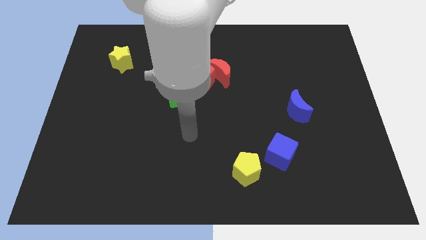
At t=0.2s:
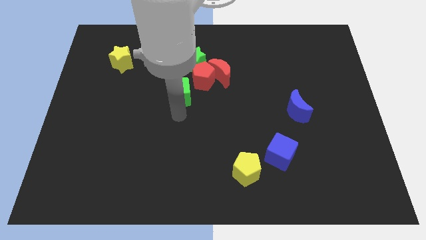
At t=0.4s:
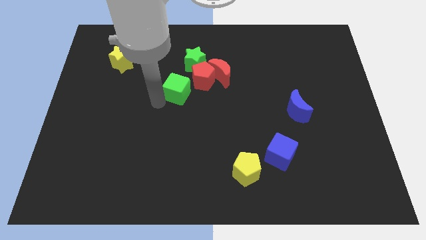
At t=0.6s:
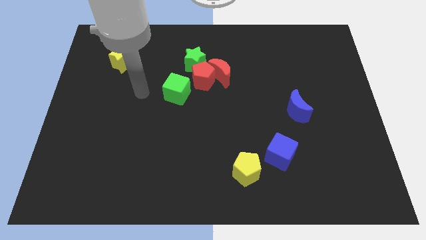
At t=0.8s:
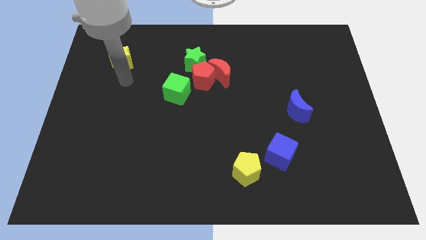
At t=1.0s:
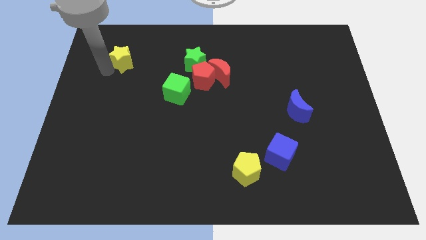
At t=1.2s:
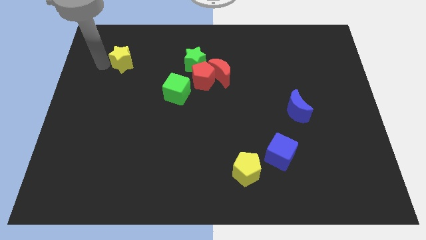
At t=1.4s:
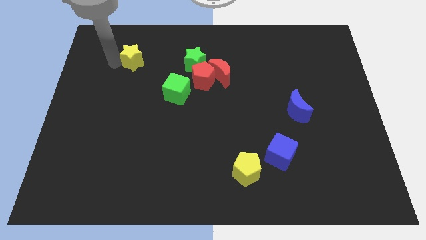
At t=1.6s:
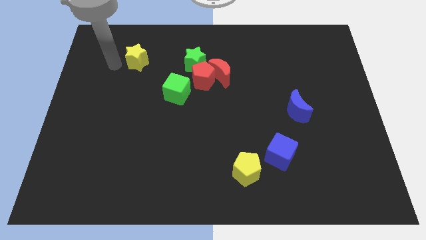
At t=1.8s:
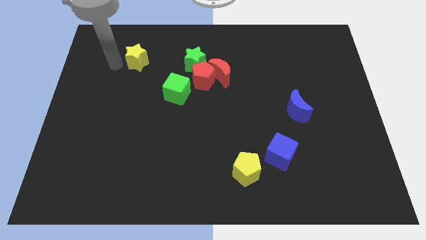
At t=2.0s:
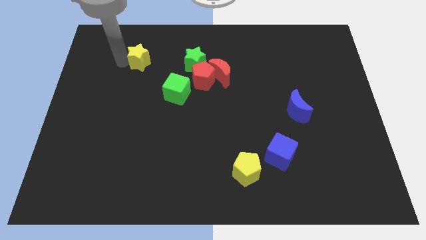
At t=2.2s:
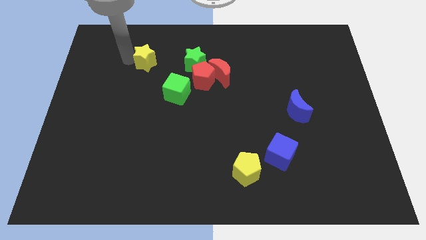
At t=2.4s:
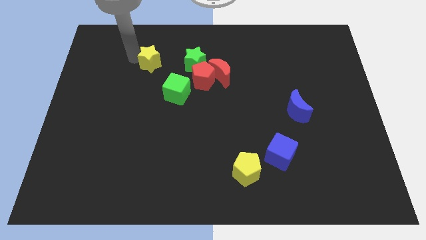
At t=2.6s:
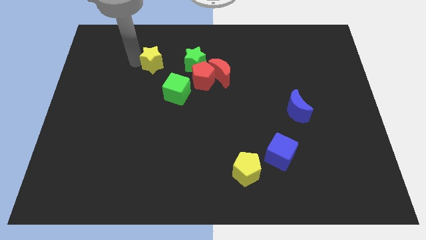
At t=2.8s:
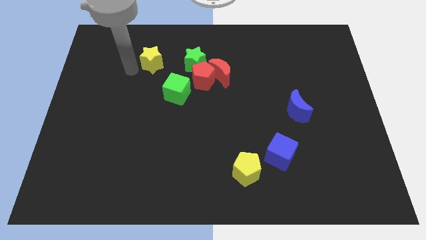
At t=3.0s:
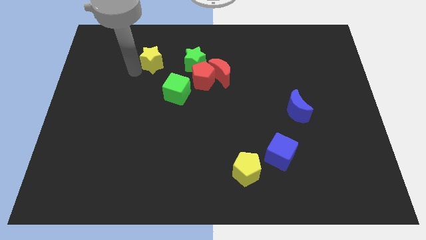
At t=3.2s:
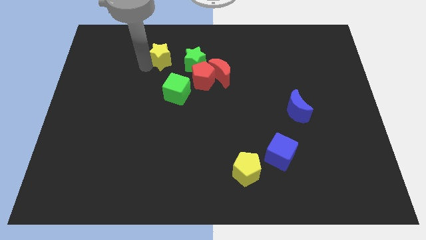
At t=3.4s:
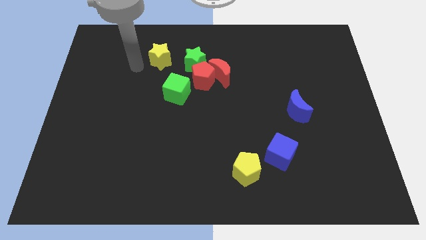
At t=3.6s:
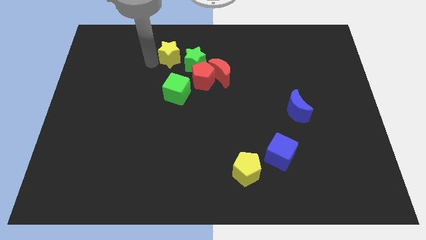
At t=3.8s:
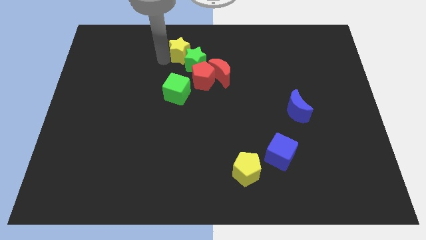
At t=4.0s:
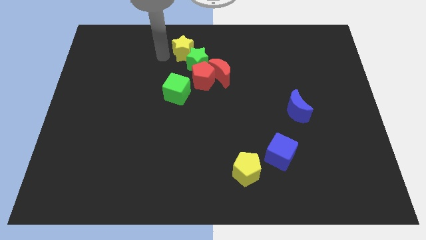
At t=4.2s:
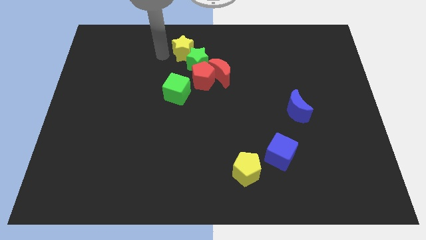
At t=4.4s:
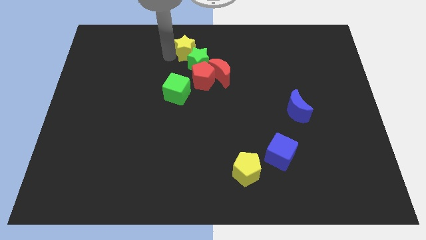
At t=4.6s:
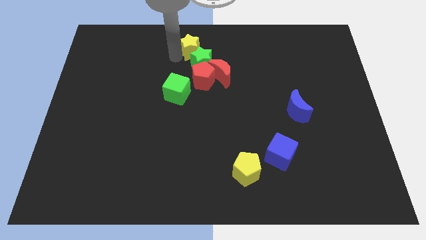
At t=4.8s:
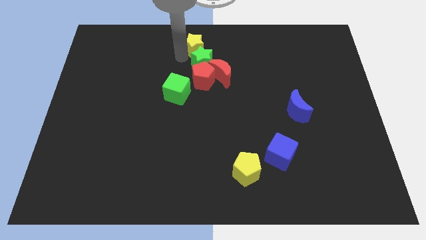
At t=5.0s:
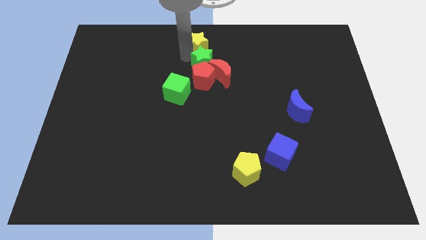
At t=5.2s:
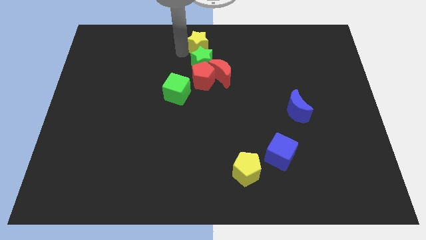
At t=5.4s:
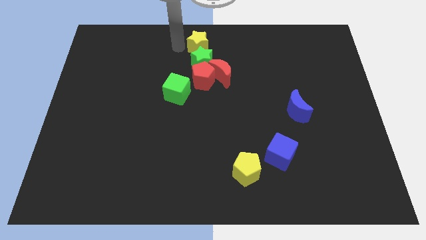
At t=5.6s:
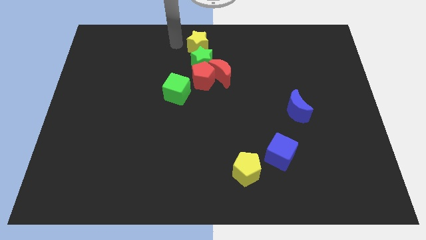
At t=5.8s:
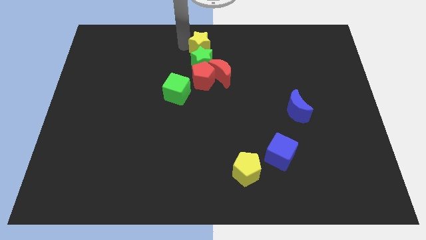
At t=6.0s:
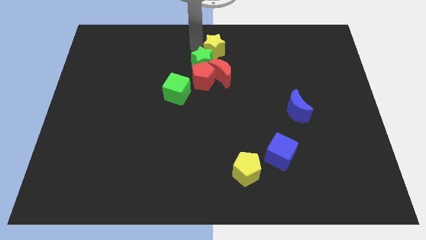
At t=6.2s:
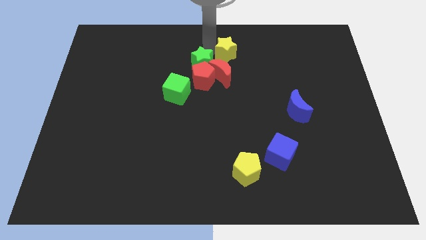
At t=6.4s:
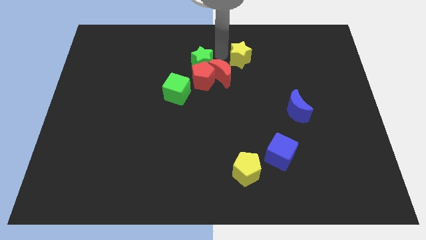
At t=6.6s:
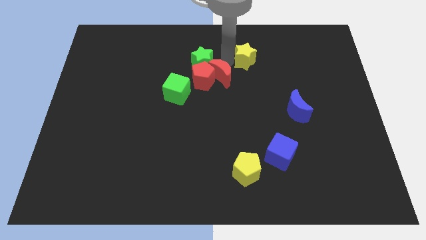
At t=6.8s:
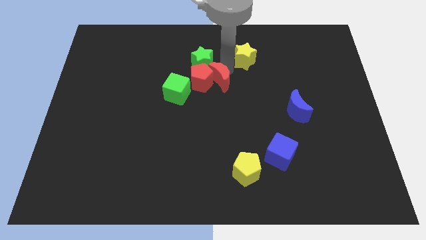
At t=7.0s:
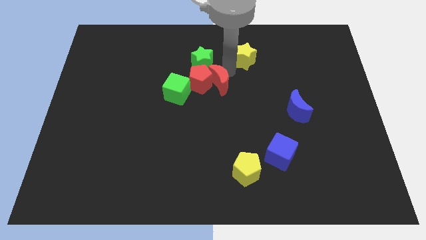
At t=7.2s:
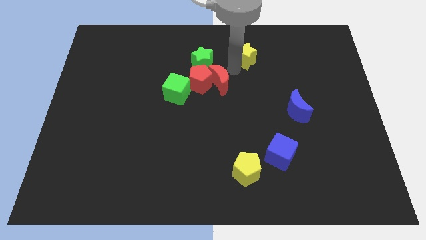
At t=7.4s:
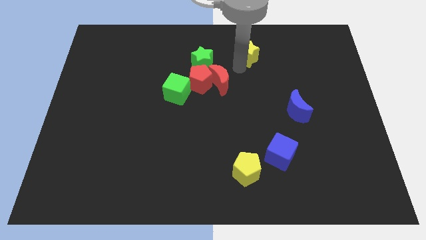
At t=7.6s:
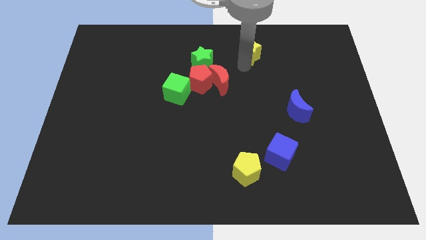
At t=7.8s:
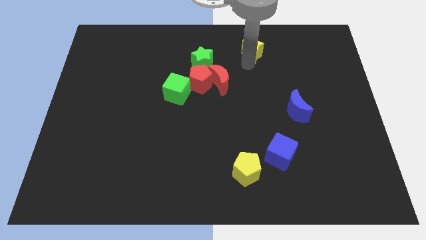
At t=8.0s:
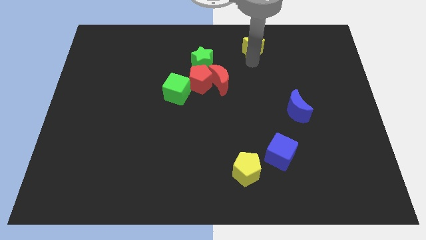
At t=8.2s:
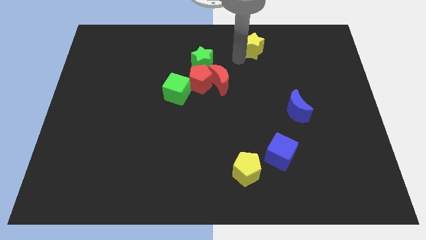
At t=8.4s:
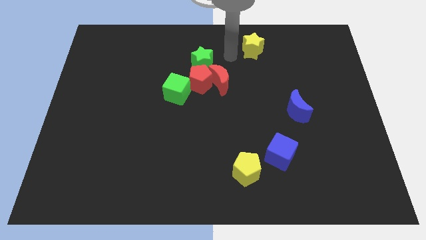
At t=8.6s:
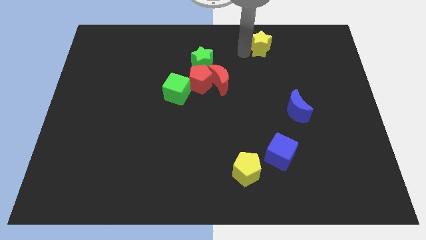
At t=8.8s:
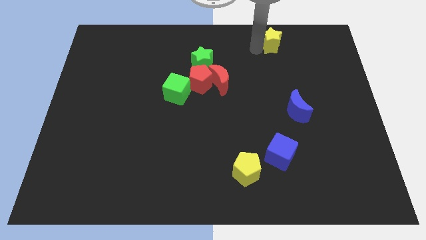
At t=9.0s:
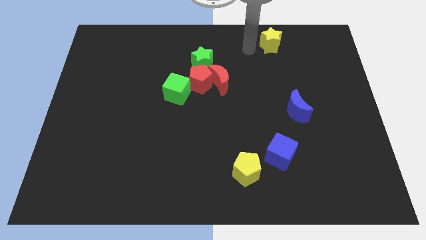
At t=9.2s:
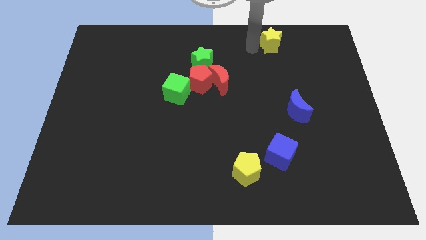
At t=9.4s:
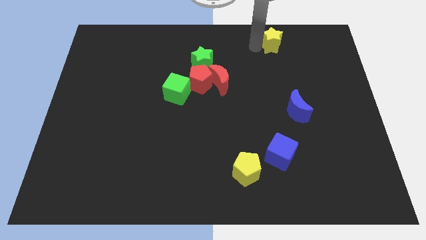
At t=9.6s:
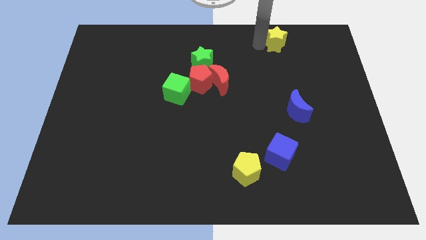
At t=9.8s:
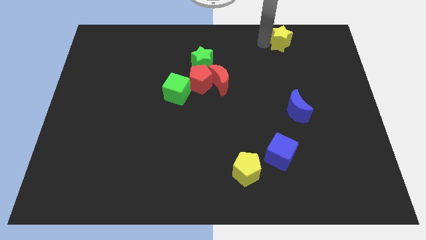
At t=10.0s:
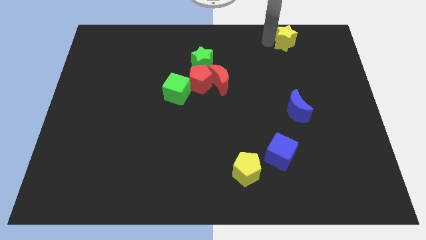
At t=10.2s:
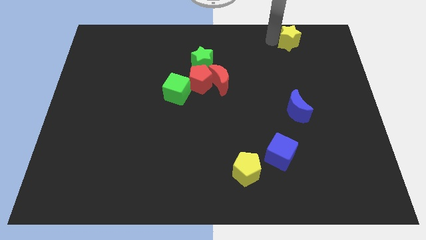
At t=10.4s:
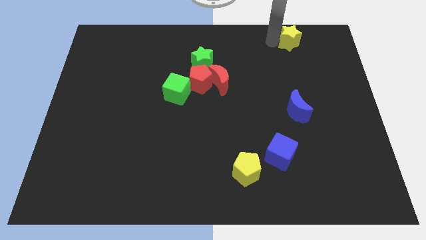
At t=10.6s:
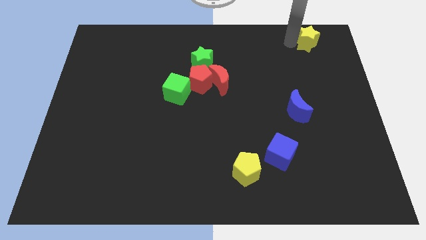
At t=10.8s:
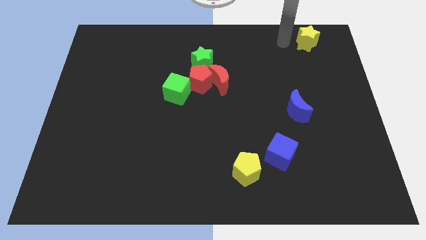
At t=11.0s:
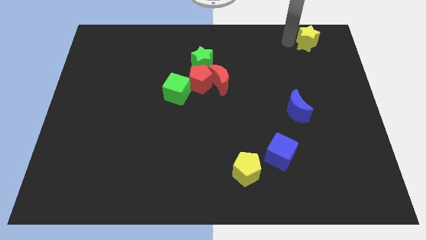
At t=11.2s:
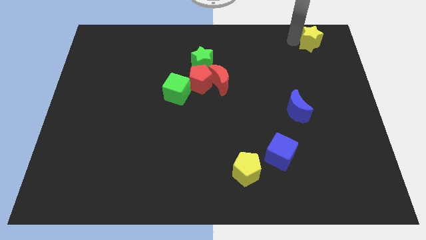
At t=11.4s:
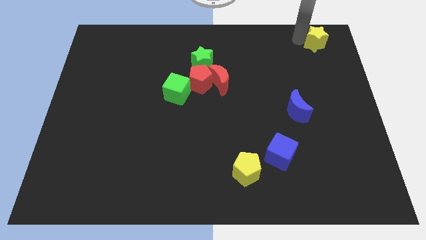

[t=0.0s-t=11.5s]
move the yellow star to the top right of the board
